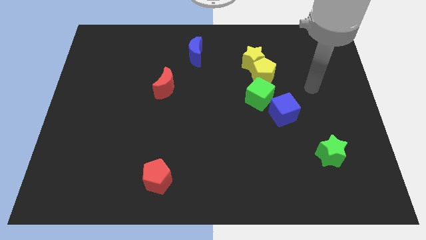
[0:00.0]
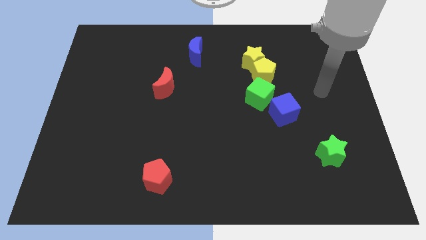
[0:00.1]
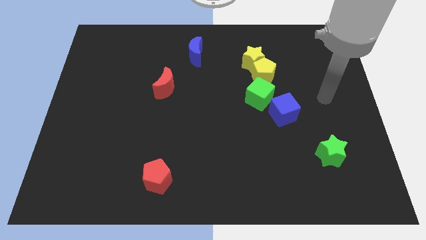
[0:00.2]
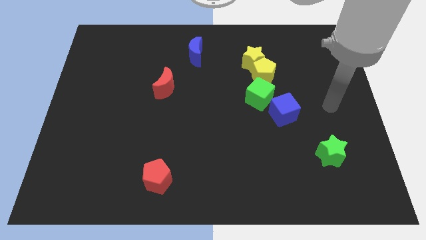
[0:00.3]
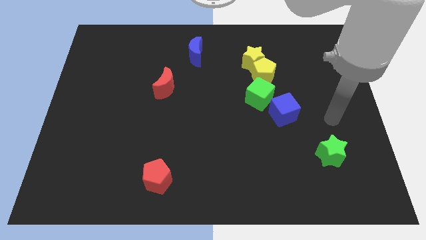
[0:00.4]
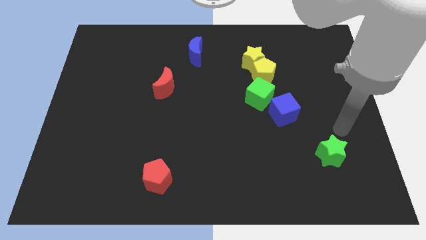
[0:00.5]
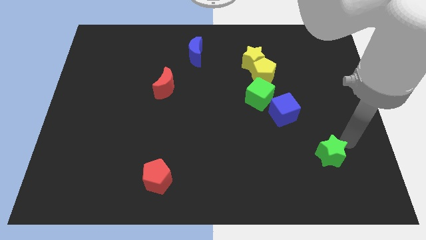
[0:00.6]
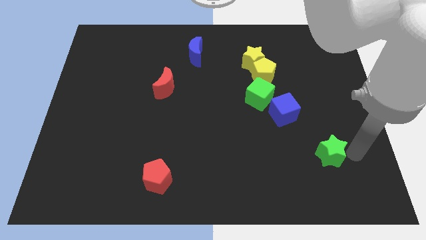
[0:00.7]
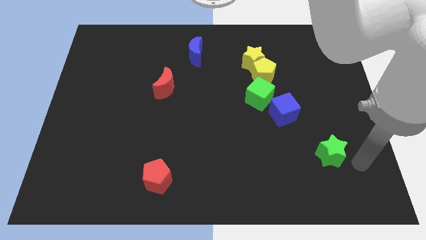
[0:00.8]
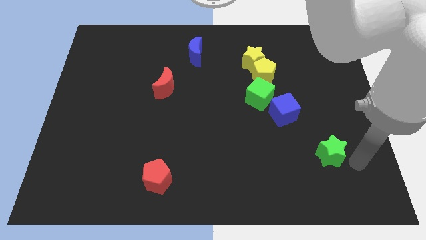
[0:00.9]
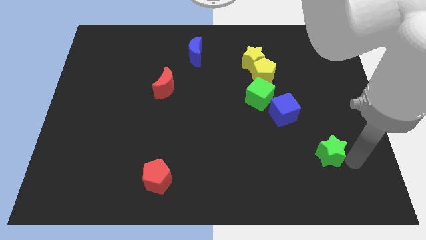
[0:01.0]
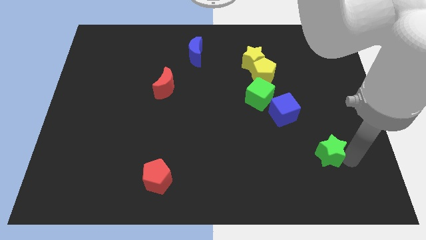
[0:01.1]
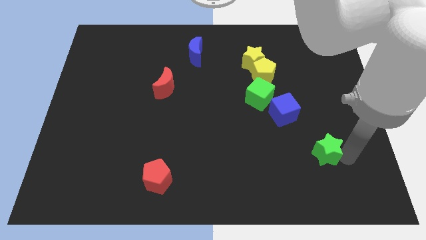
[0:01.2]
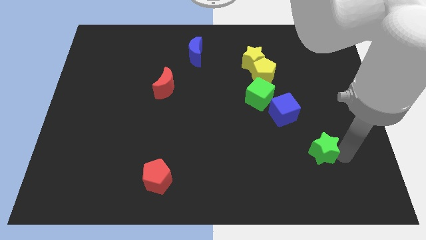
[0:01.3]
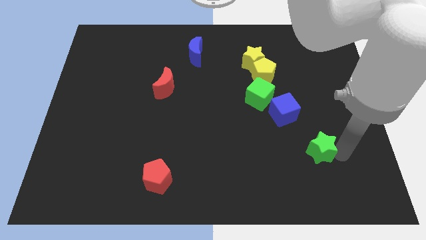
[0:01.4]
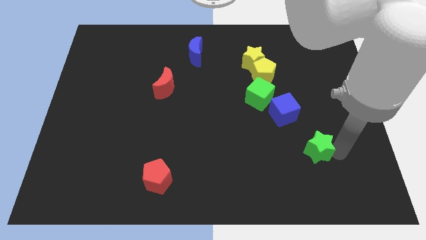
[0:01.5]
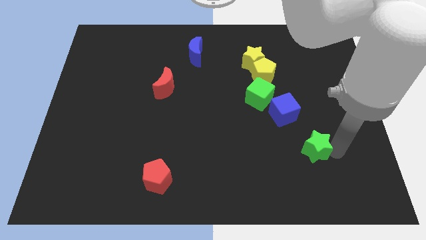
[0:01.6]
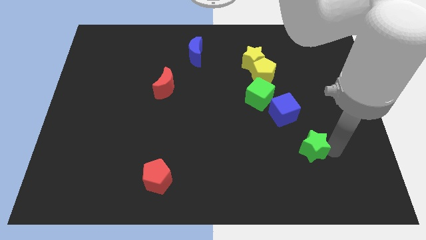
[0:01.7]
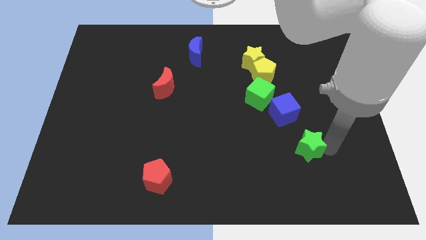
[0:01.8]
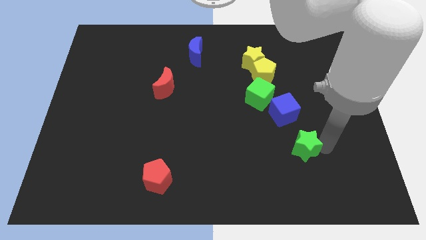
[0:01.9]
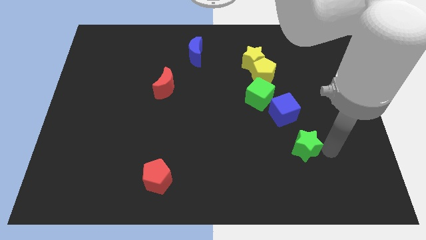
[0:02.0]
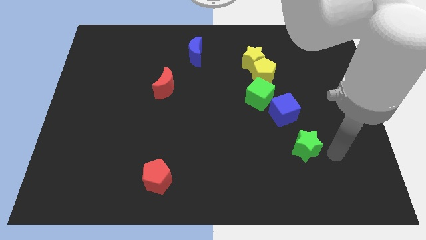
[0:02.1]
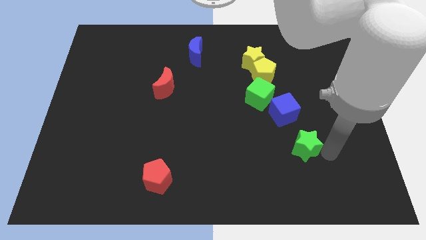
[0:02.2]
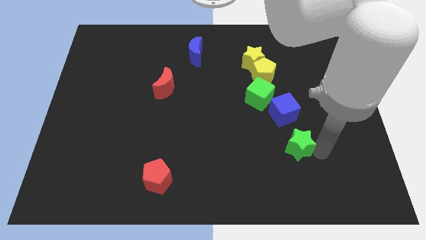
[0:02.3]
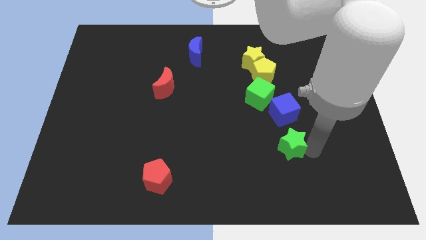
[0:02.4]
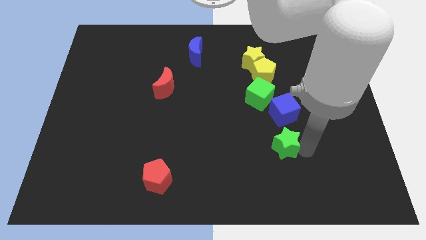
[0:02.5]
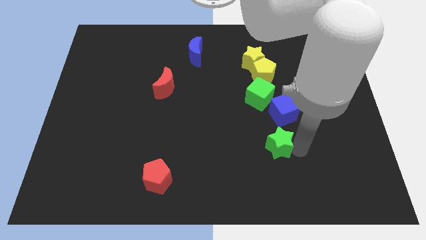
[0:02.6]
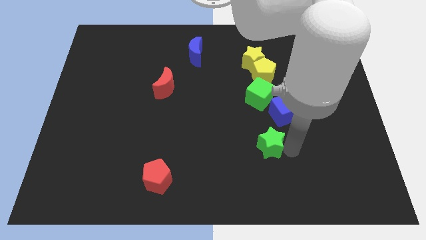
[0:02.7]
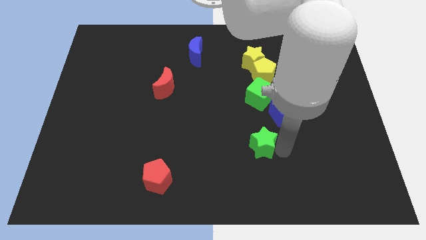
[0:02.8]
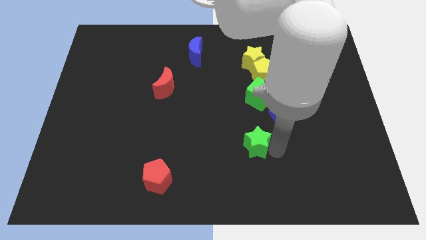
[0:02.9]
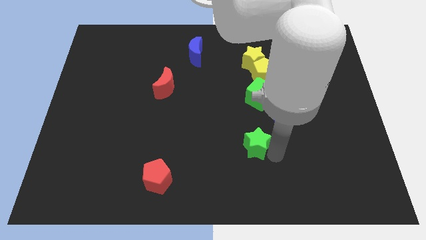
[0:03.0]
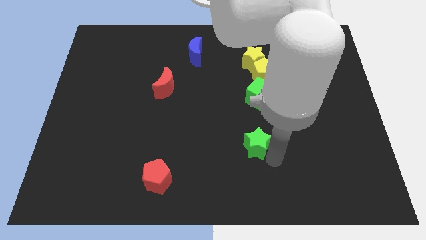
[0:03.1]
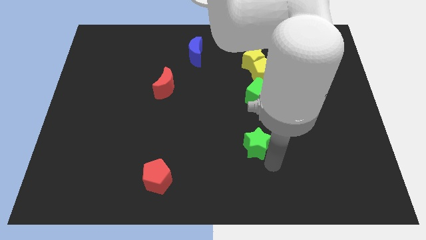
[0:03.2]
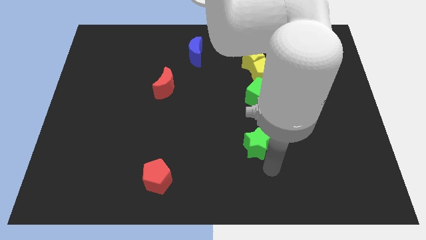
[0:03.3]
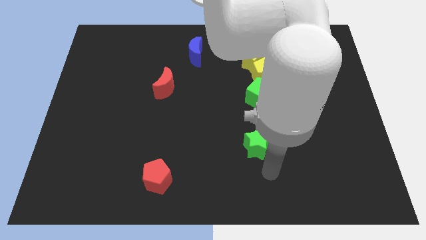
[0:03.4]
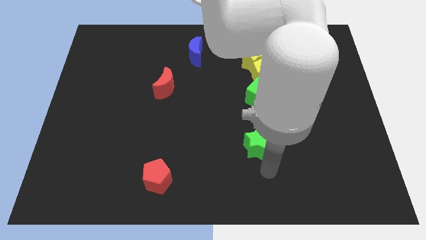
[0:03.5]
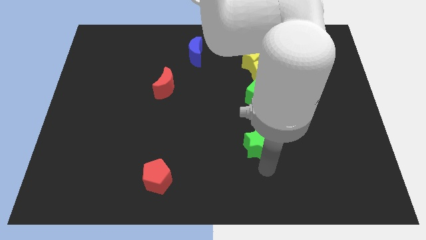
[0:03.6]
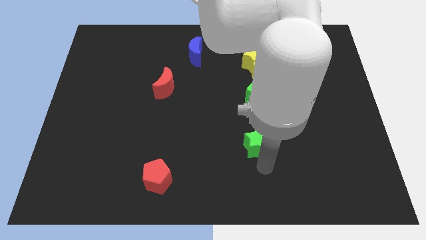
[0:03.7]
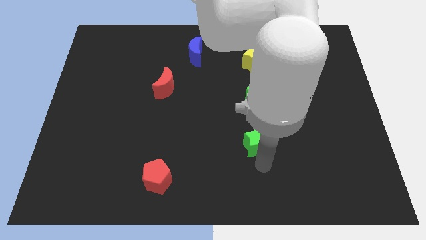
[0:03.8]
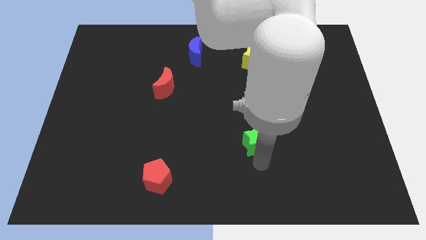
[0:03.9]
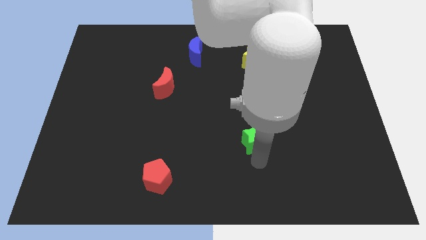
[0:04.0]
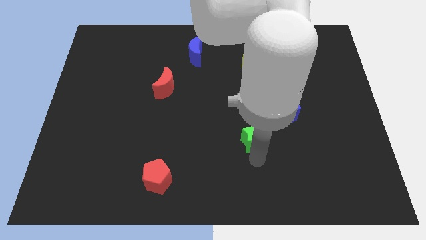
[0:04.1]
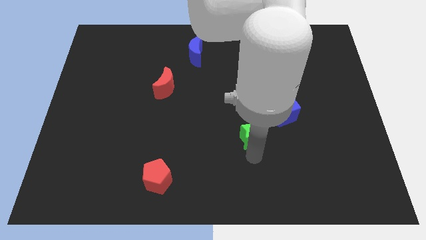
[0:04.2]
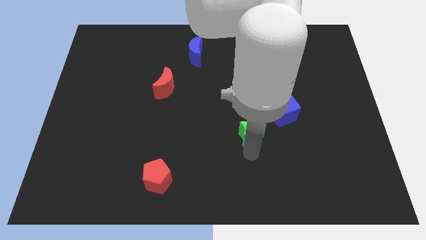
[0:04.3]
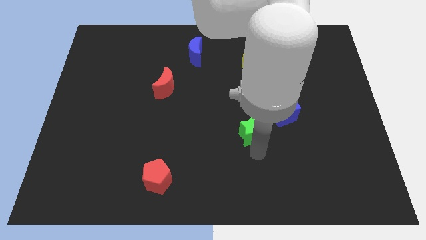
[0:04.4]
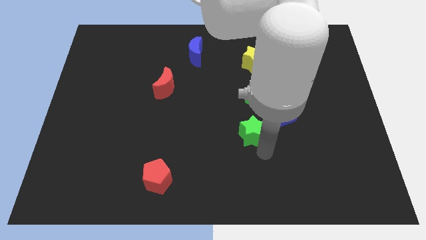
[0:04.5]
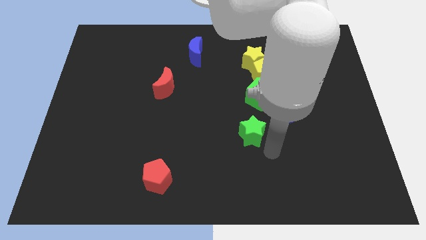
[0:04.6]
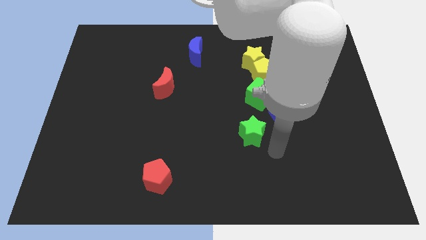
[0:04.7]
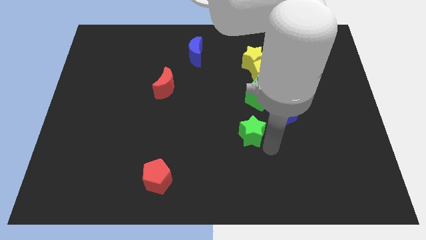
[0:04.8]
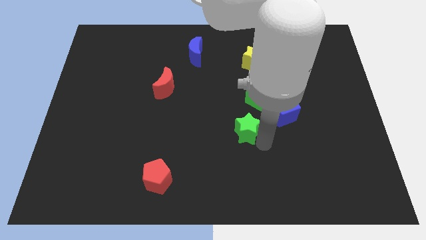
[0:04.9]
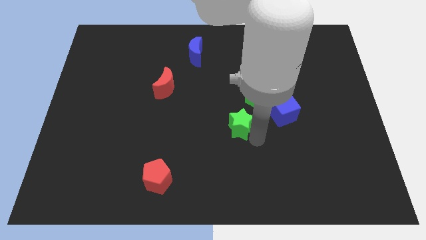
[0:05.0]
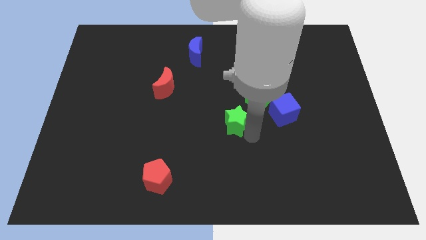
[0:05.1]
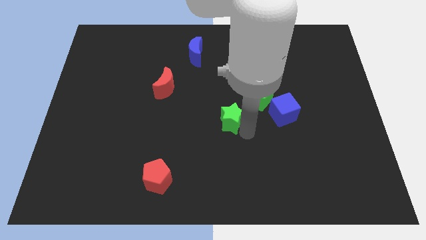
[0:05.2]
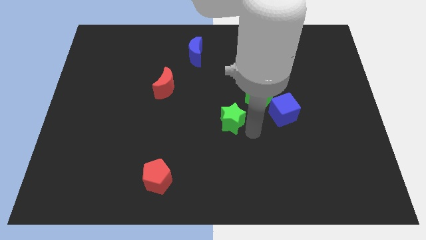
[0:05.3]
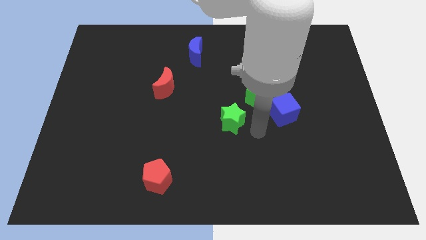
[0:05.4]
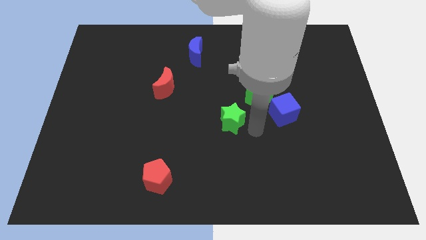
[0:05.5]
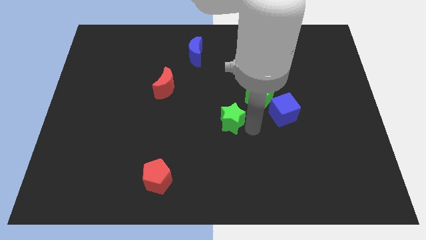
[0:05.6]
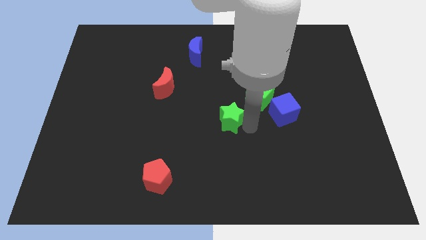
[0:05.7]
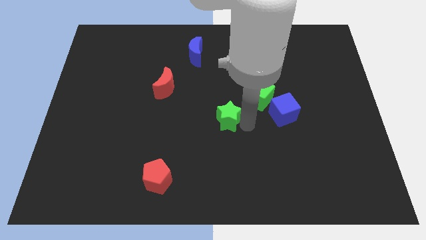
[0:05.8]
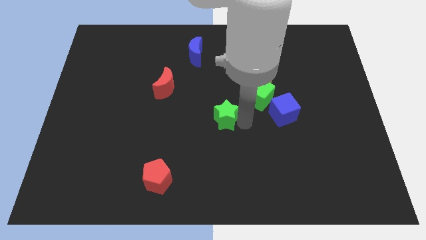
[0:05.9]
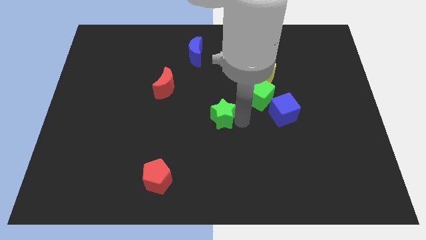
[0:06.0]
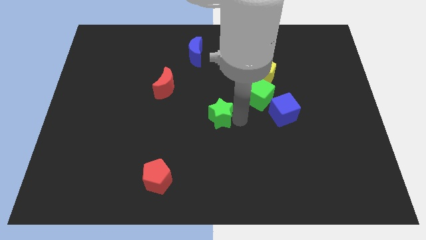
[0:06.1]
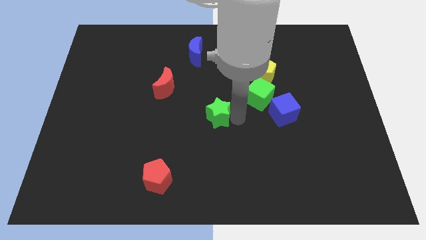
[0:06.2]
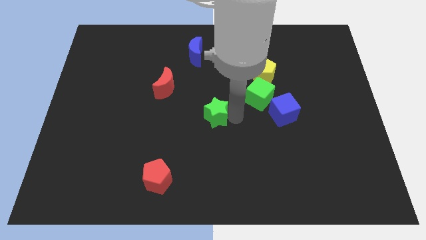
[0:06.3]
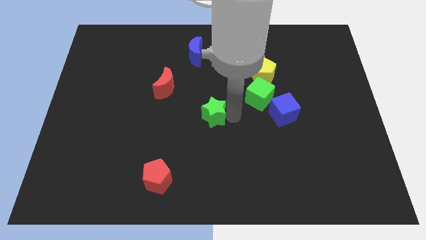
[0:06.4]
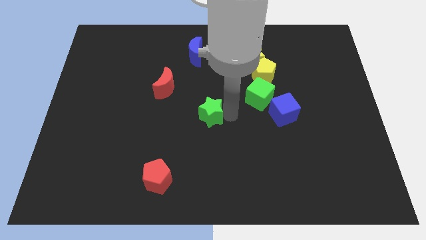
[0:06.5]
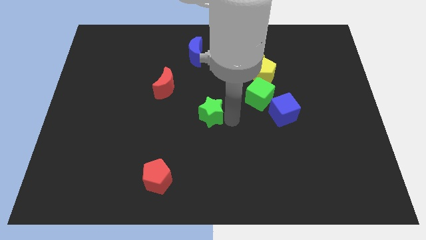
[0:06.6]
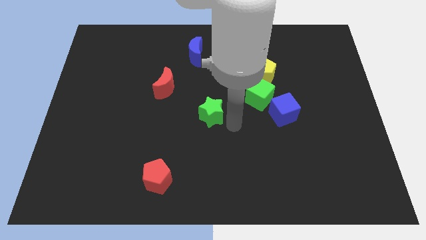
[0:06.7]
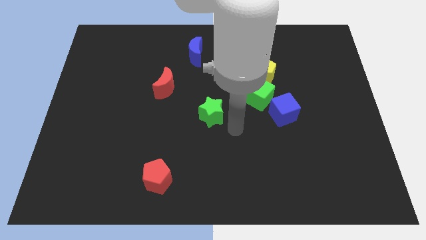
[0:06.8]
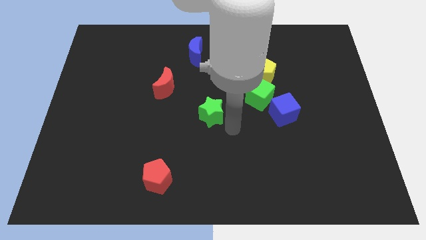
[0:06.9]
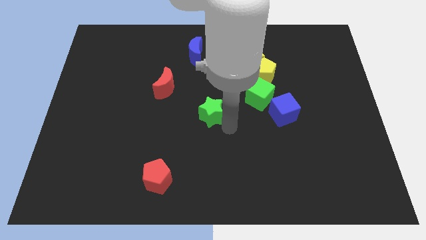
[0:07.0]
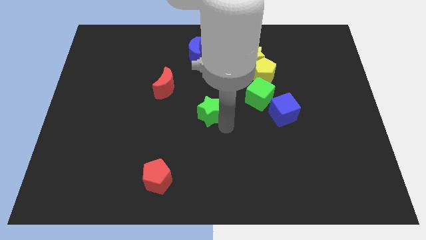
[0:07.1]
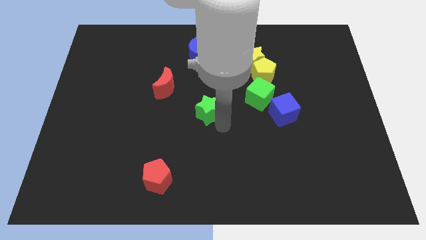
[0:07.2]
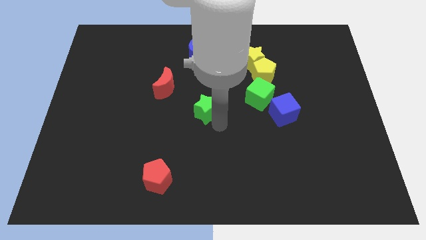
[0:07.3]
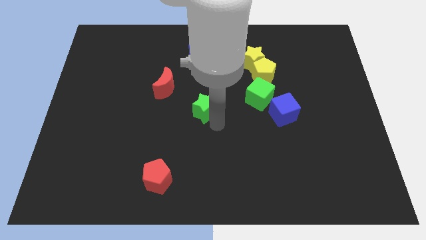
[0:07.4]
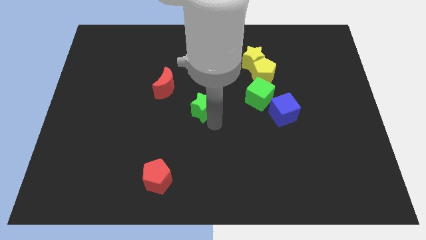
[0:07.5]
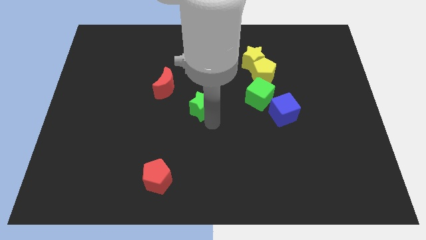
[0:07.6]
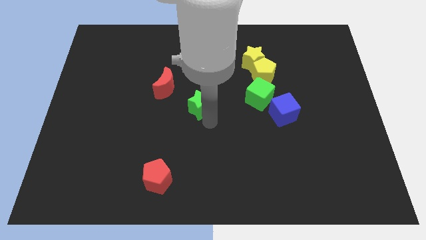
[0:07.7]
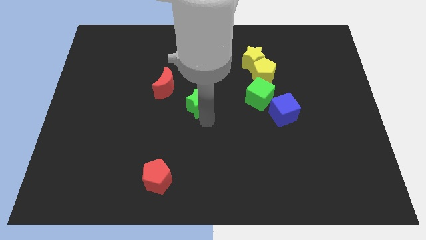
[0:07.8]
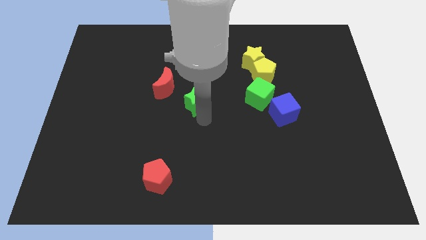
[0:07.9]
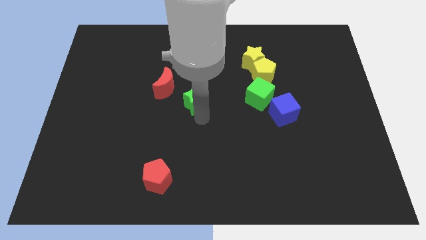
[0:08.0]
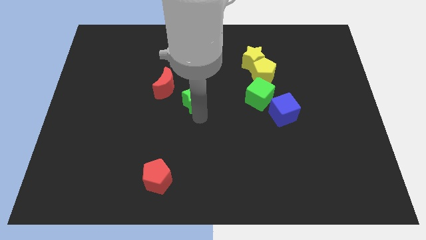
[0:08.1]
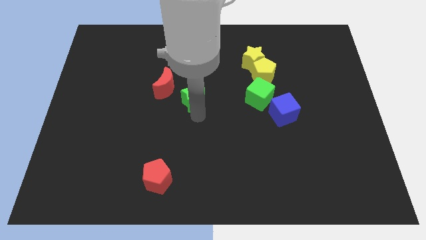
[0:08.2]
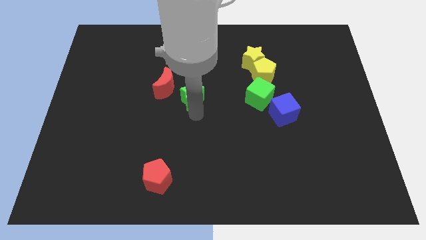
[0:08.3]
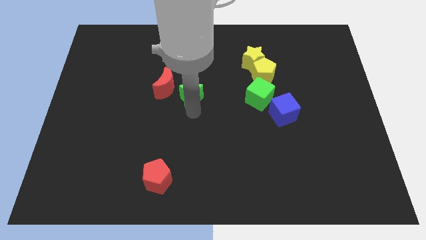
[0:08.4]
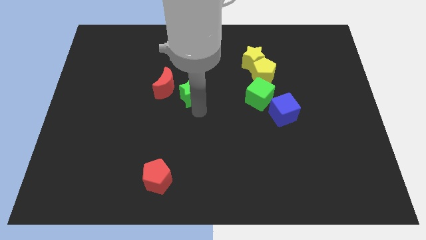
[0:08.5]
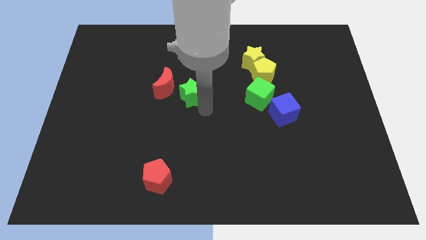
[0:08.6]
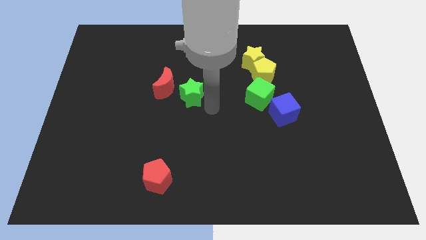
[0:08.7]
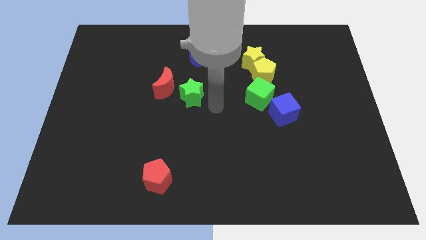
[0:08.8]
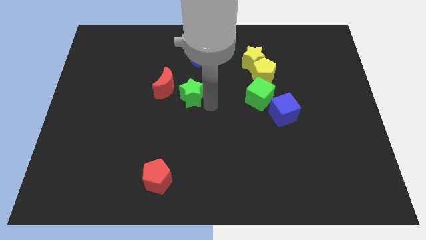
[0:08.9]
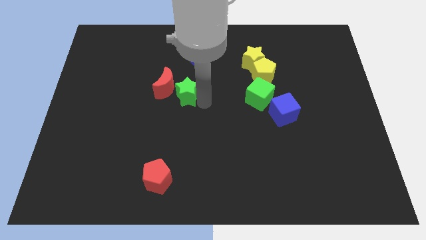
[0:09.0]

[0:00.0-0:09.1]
move the green star next to the red moon
